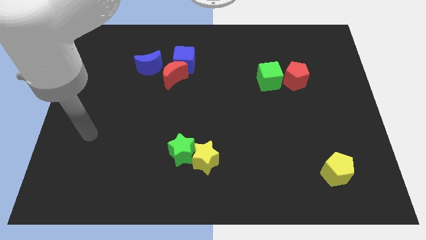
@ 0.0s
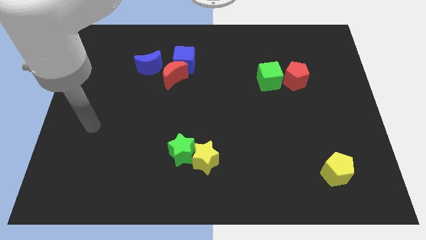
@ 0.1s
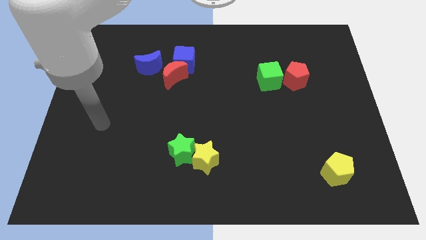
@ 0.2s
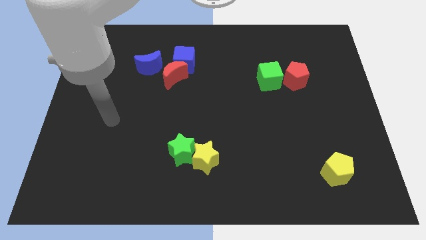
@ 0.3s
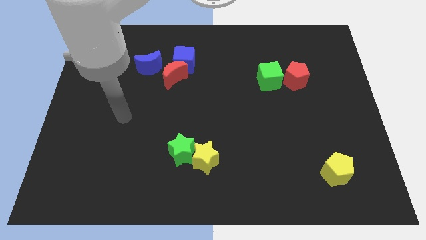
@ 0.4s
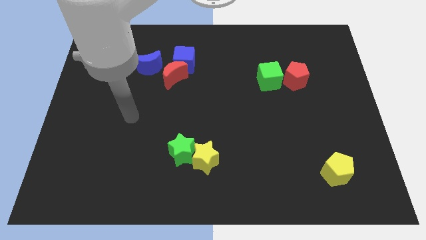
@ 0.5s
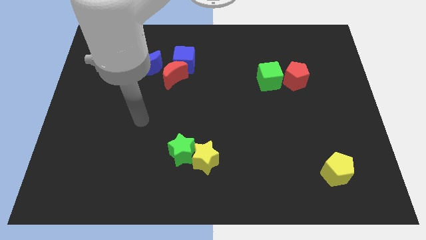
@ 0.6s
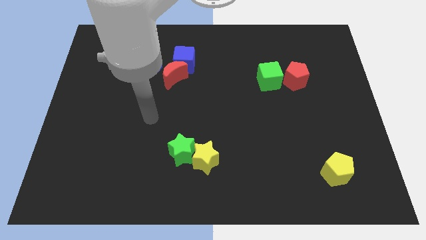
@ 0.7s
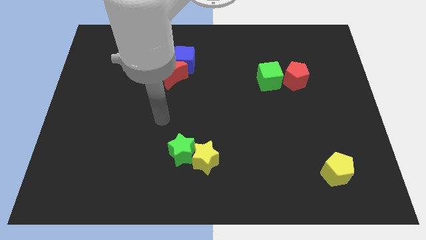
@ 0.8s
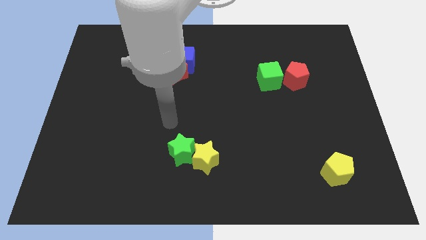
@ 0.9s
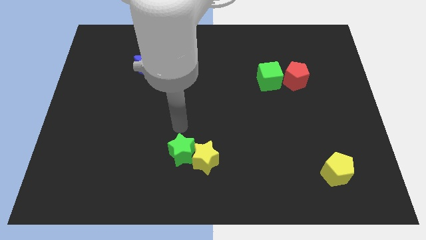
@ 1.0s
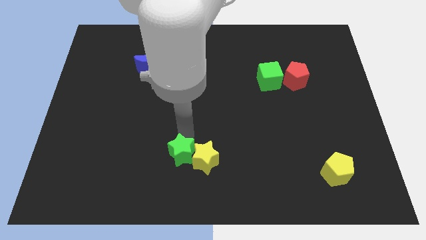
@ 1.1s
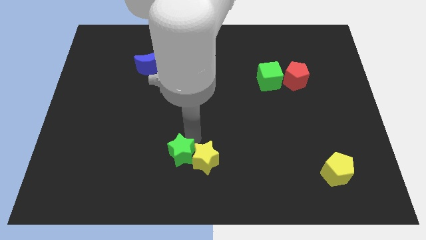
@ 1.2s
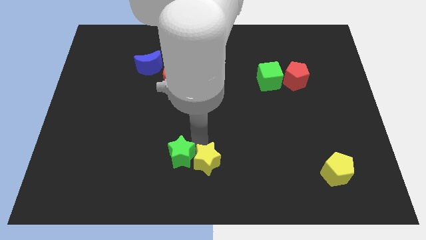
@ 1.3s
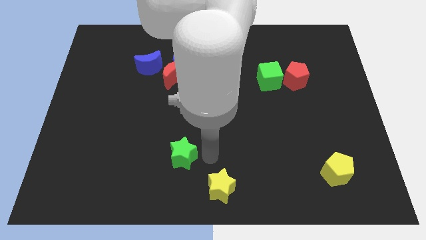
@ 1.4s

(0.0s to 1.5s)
move the green star away from the yellow star

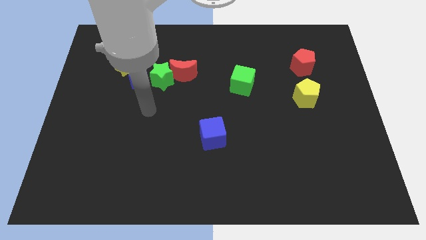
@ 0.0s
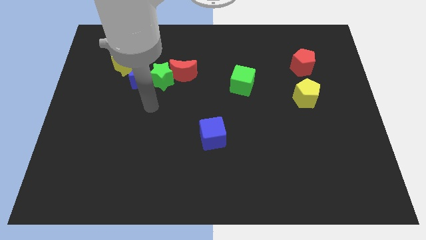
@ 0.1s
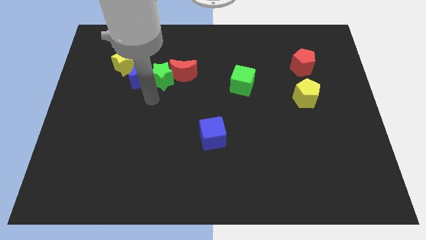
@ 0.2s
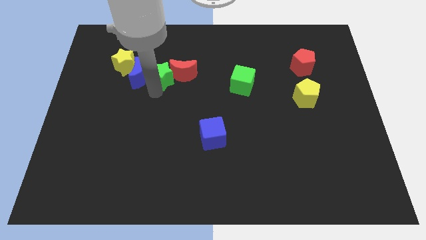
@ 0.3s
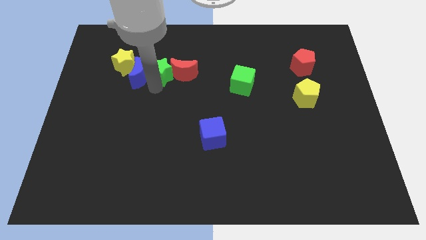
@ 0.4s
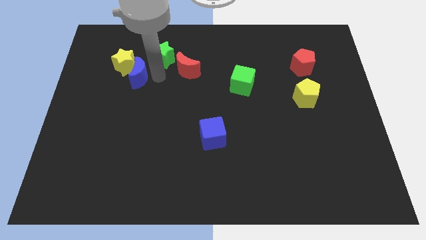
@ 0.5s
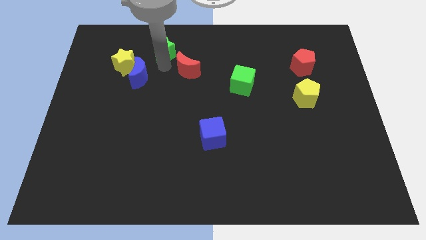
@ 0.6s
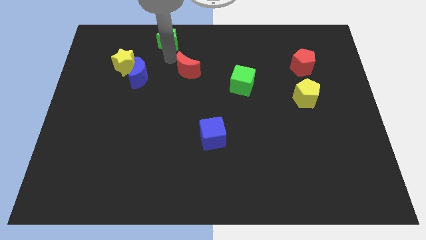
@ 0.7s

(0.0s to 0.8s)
pull the red moon apart from the green star

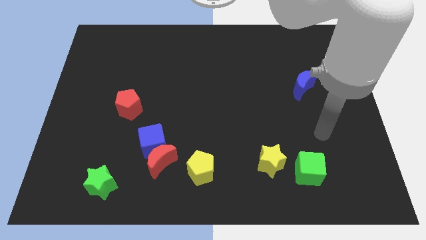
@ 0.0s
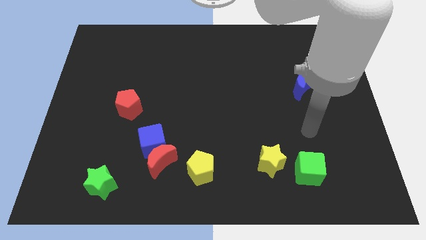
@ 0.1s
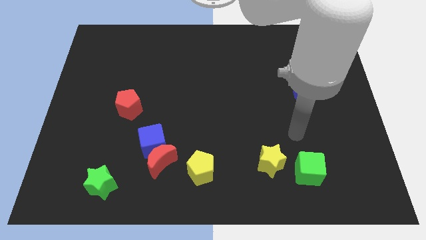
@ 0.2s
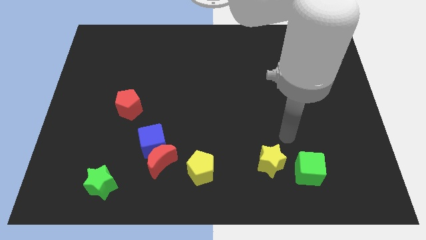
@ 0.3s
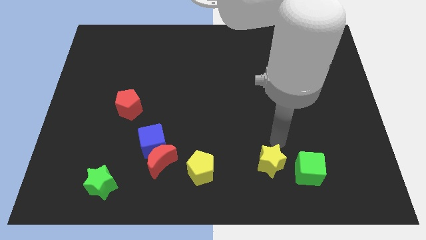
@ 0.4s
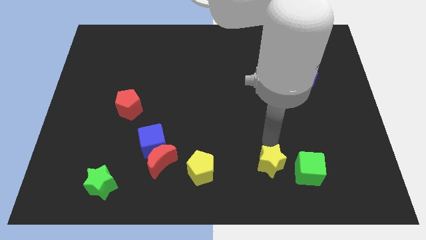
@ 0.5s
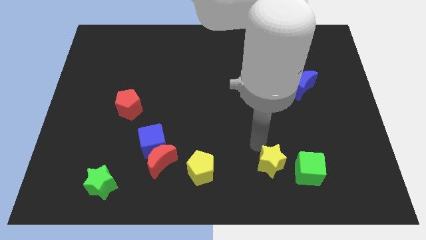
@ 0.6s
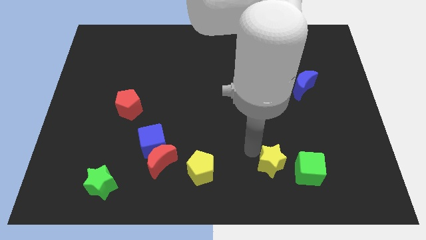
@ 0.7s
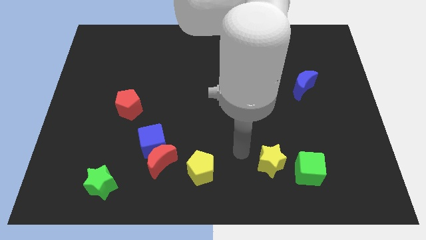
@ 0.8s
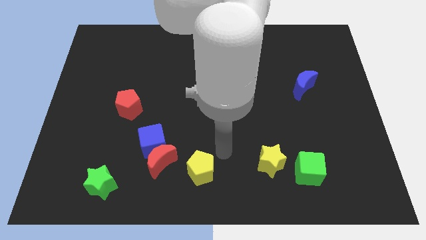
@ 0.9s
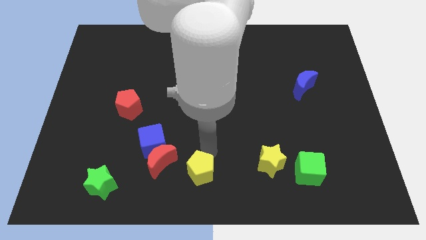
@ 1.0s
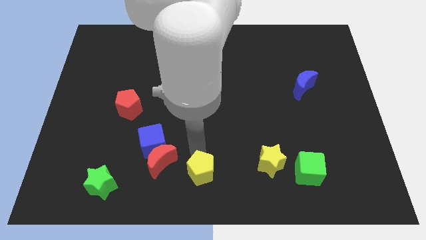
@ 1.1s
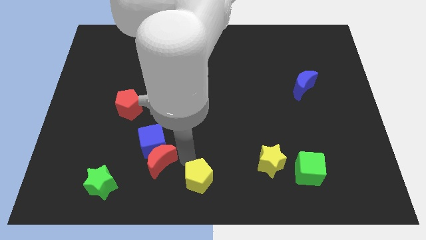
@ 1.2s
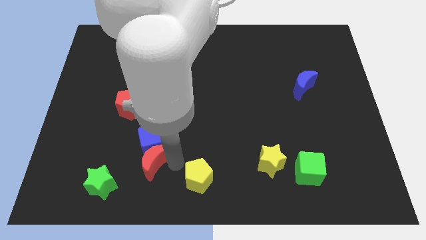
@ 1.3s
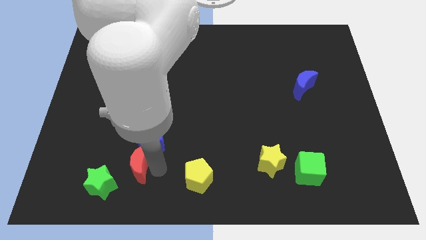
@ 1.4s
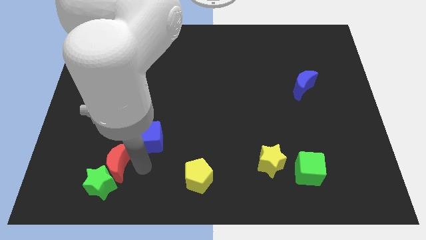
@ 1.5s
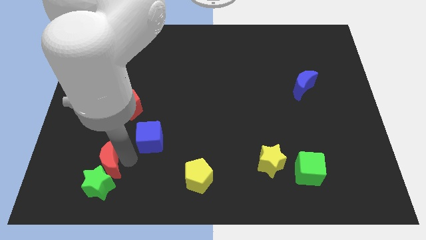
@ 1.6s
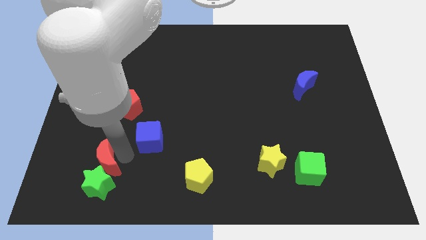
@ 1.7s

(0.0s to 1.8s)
pull the blue cube apart from the red moon

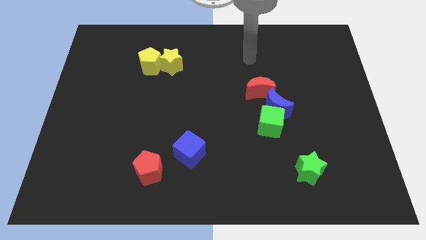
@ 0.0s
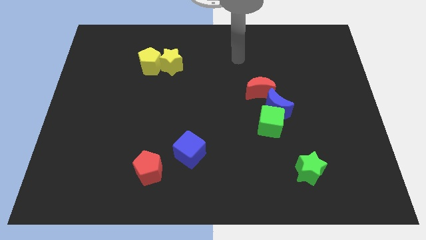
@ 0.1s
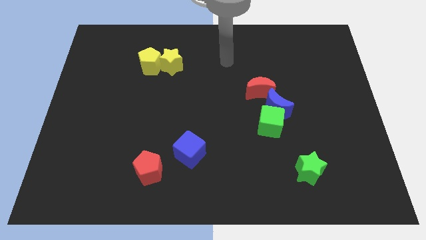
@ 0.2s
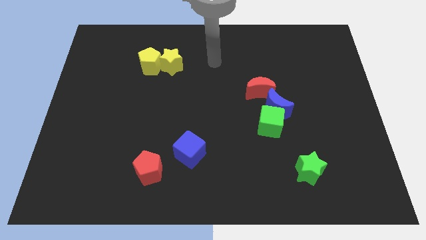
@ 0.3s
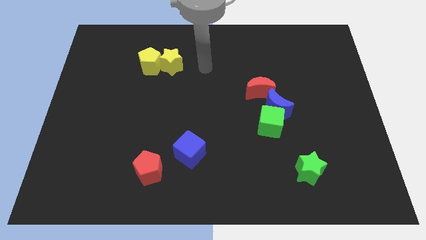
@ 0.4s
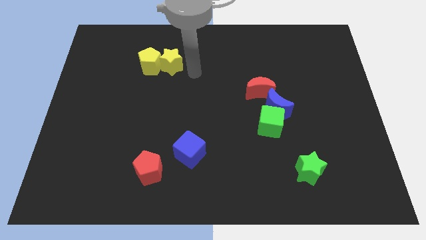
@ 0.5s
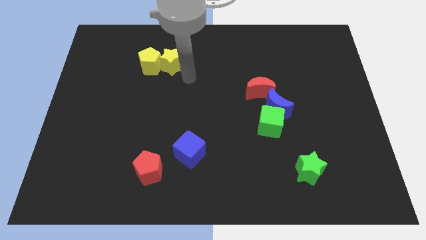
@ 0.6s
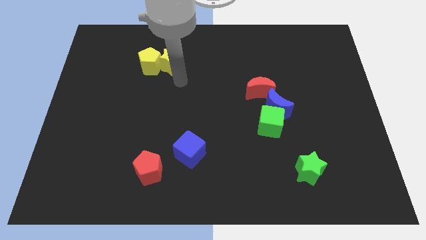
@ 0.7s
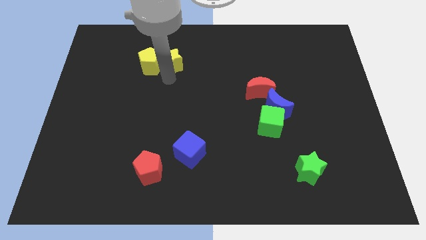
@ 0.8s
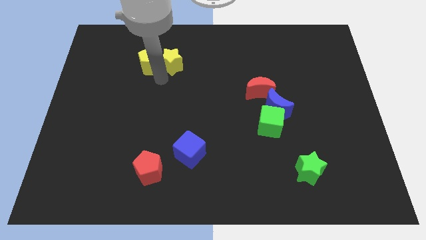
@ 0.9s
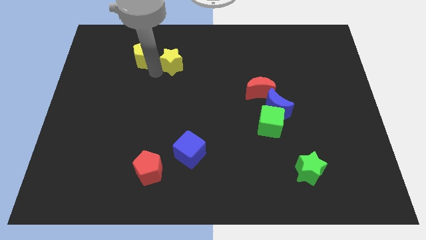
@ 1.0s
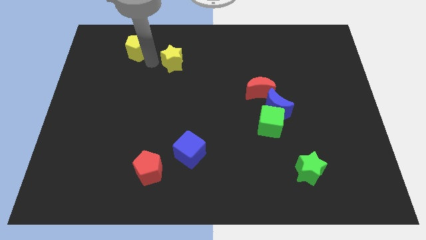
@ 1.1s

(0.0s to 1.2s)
move the yellow star away from the yellow pentagon

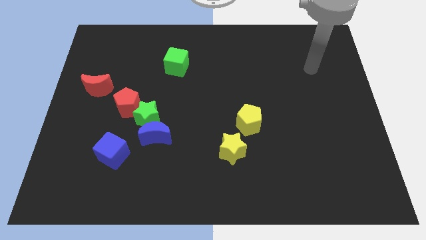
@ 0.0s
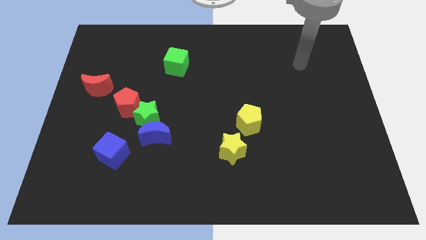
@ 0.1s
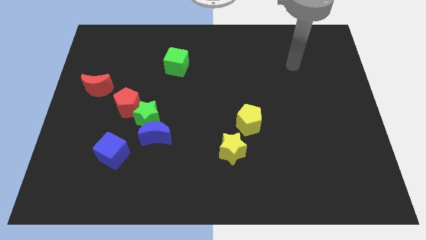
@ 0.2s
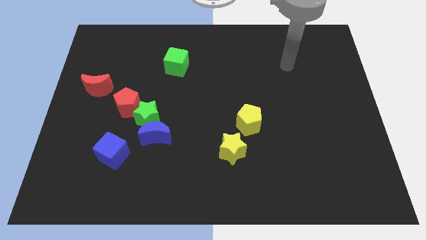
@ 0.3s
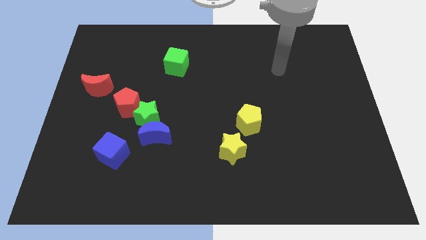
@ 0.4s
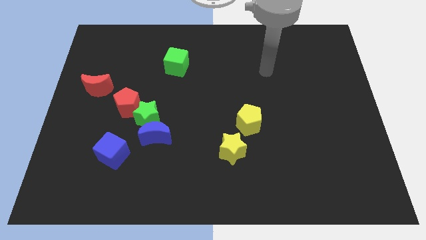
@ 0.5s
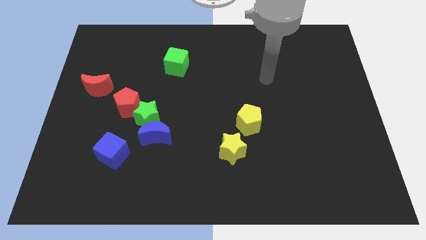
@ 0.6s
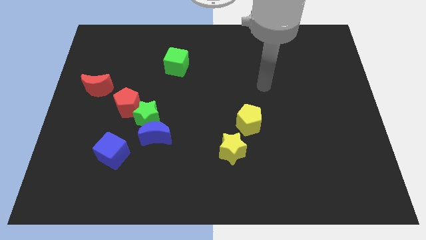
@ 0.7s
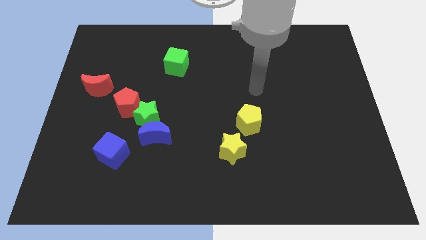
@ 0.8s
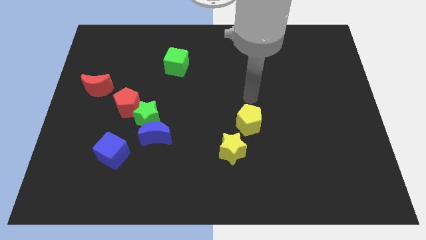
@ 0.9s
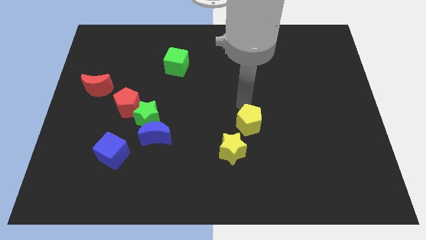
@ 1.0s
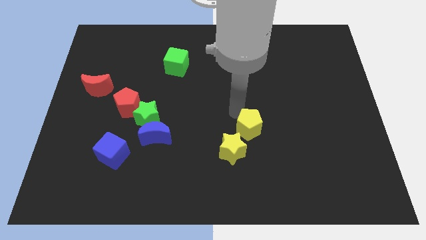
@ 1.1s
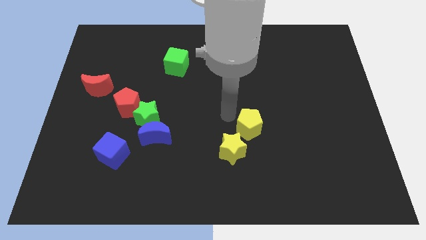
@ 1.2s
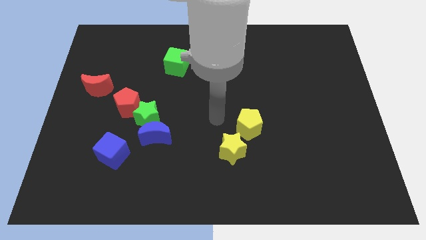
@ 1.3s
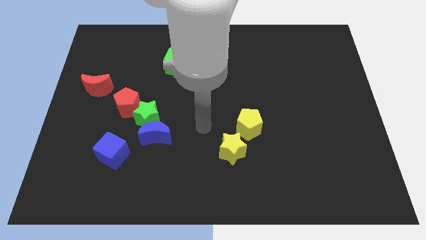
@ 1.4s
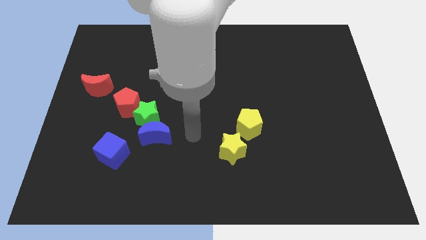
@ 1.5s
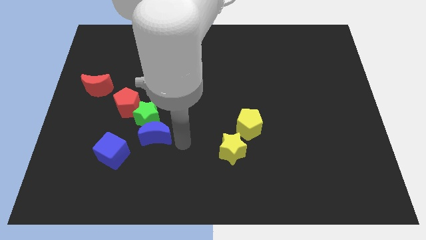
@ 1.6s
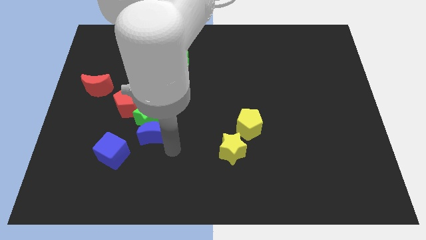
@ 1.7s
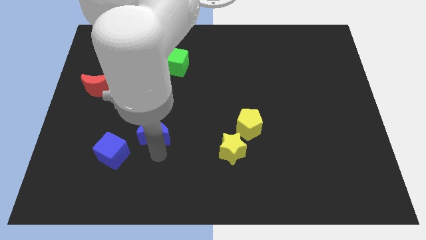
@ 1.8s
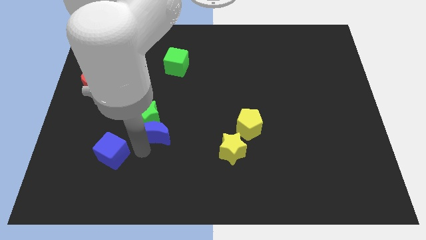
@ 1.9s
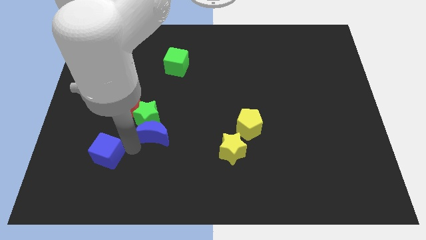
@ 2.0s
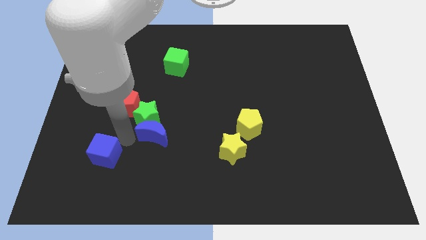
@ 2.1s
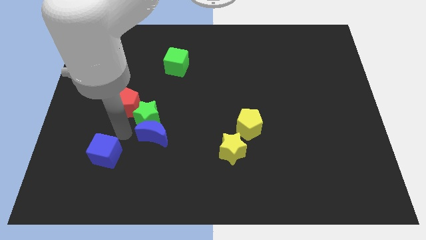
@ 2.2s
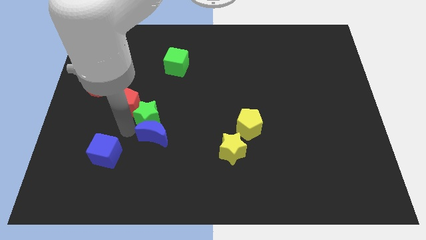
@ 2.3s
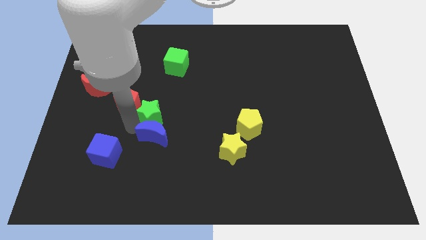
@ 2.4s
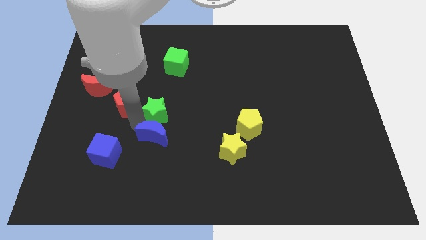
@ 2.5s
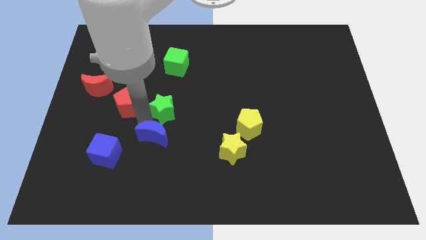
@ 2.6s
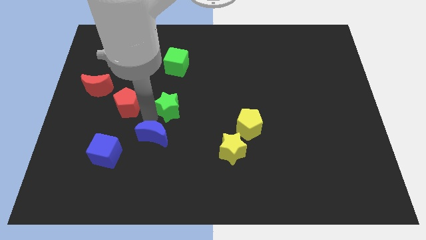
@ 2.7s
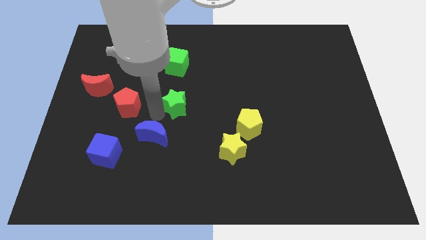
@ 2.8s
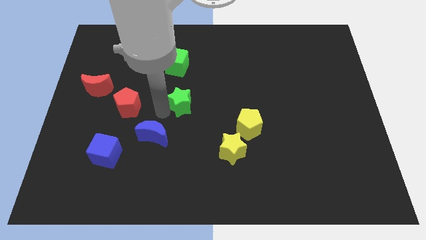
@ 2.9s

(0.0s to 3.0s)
pull the green star apart from the blue moon and red pentagon

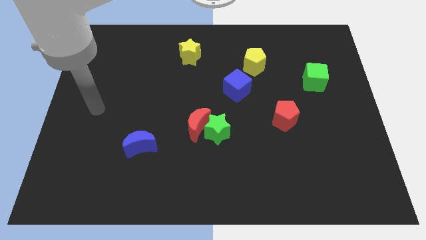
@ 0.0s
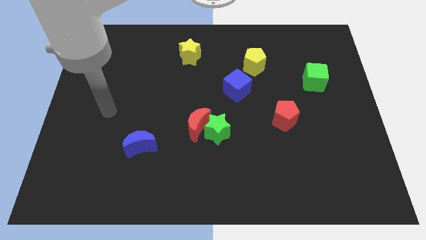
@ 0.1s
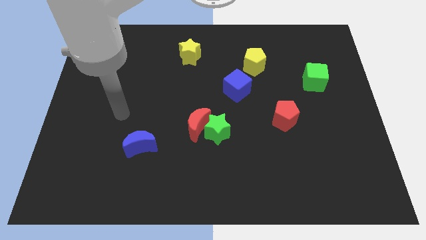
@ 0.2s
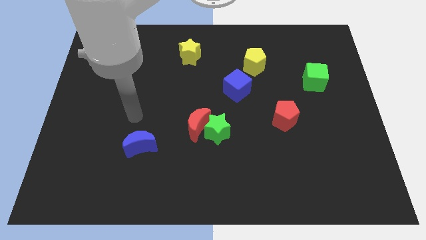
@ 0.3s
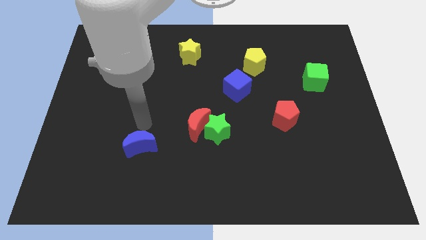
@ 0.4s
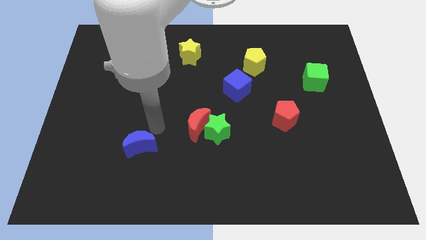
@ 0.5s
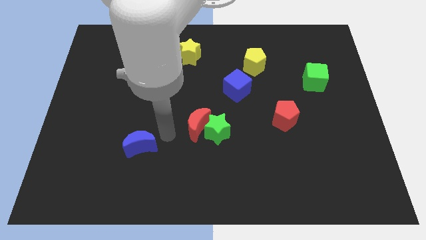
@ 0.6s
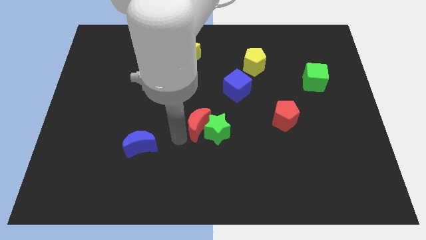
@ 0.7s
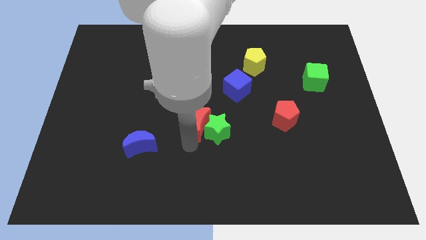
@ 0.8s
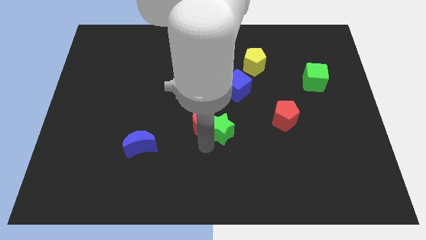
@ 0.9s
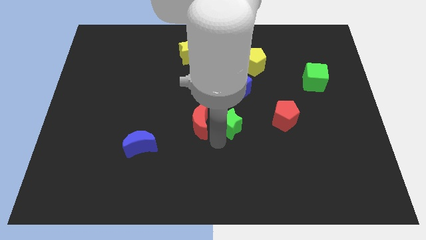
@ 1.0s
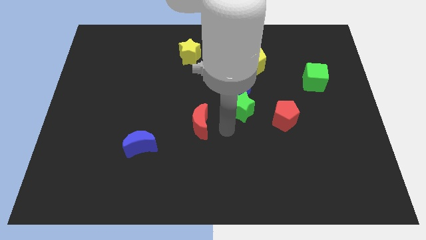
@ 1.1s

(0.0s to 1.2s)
separate the red moon from the green star
